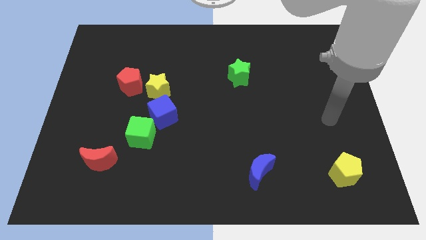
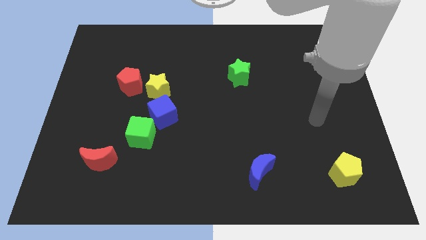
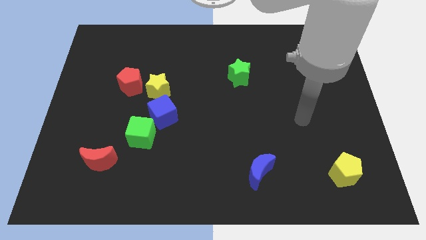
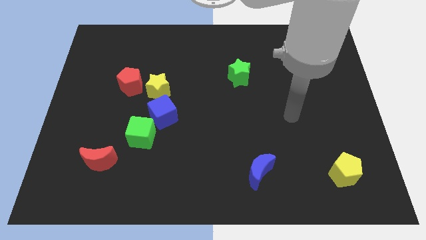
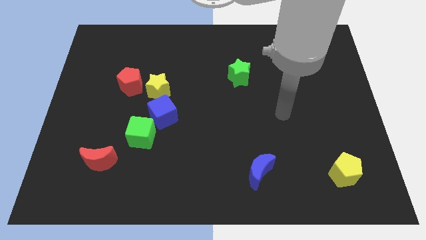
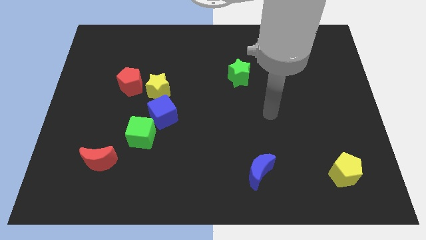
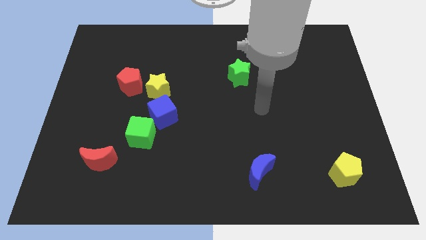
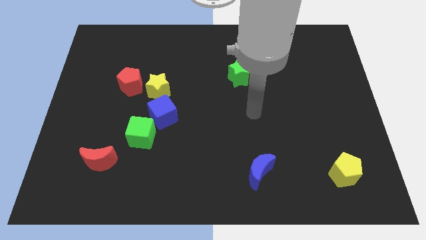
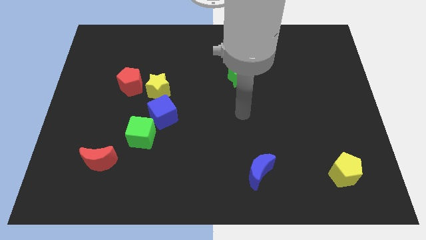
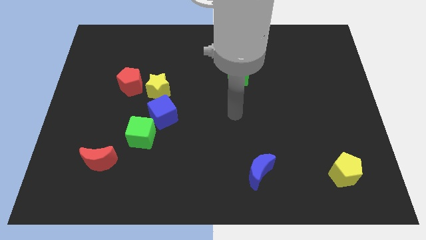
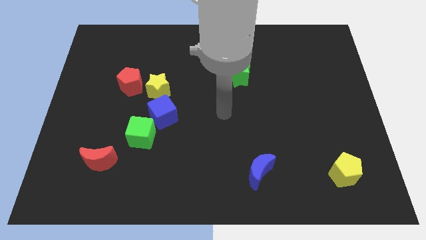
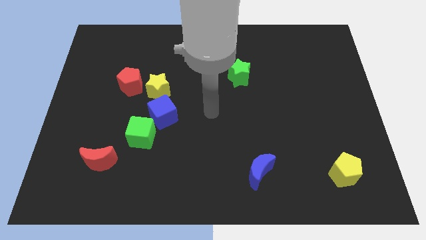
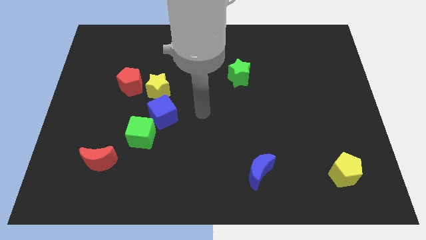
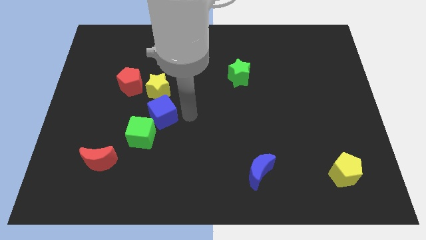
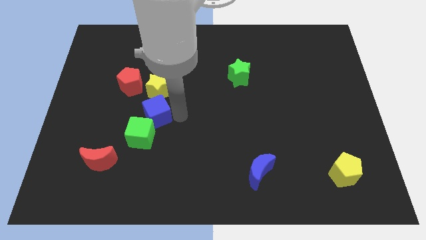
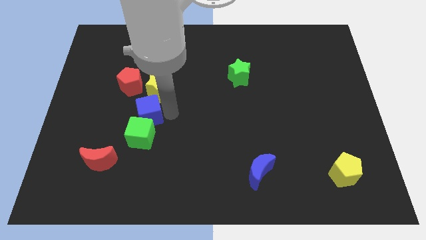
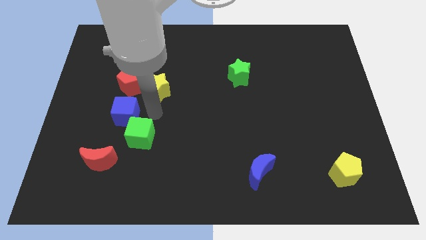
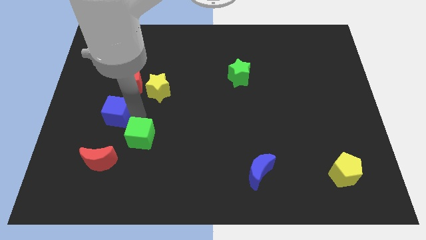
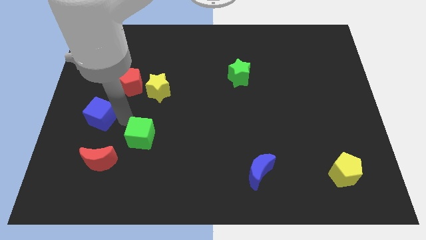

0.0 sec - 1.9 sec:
move the green cube away from the blue cube

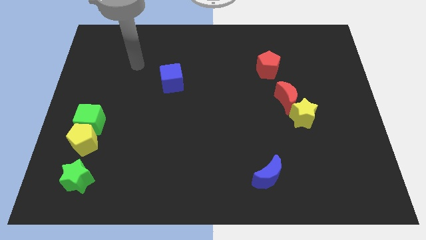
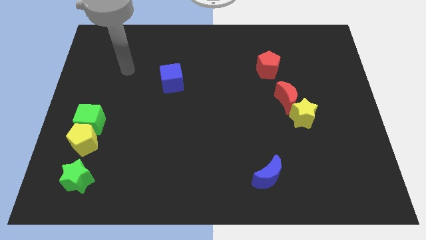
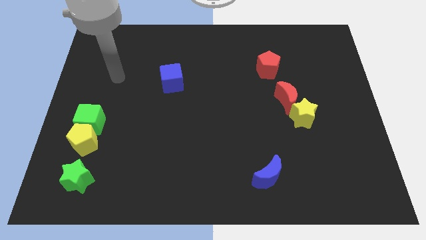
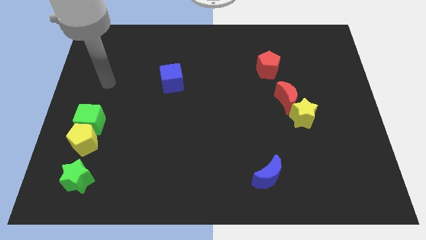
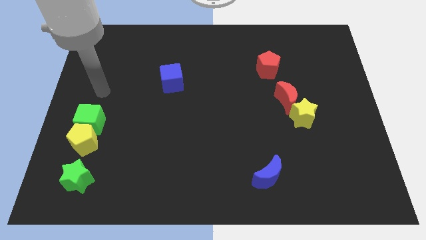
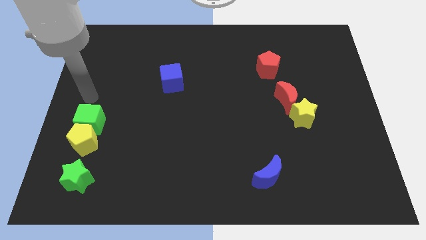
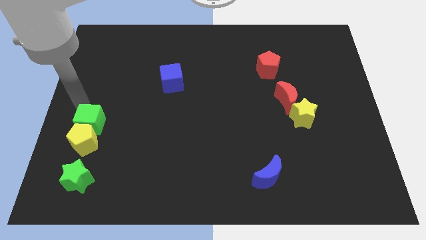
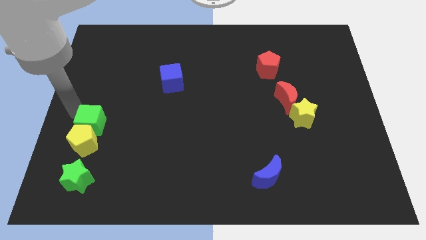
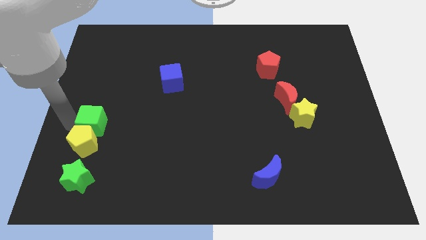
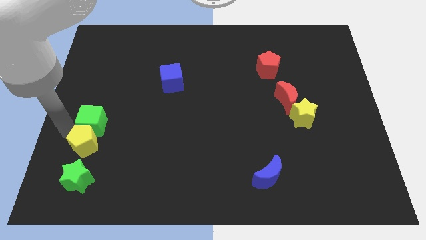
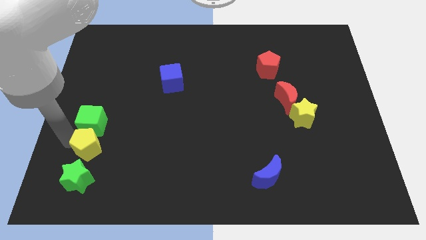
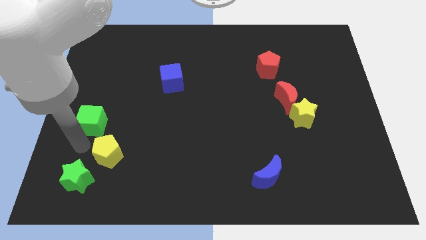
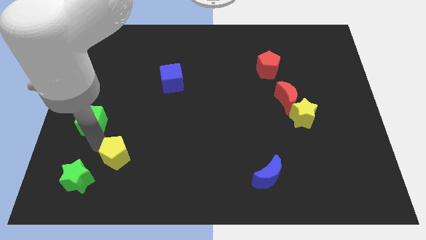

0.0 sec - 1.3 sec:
separate the green cube from the yellow pentagon

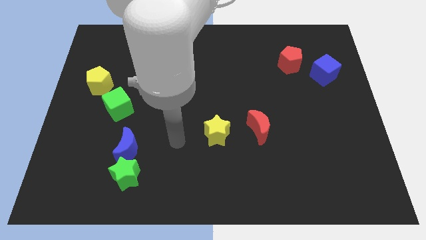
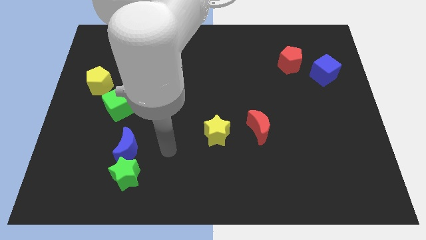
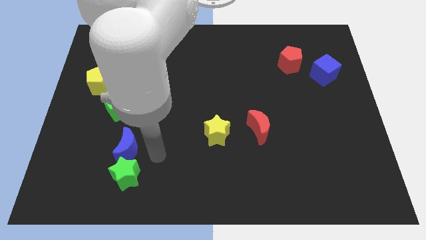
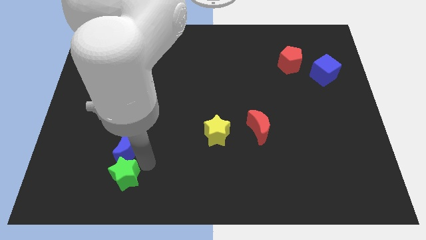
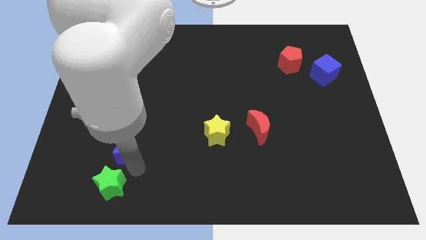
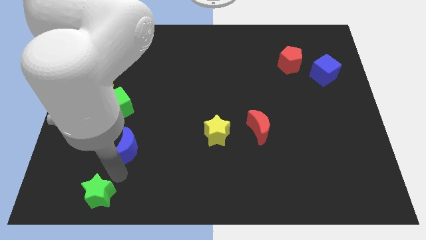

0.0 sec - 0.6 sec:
move the blue moon away from the green star

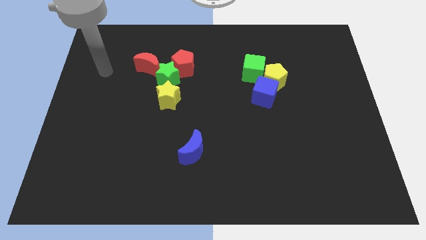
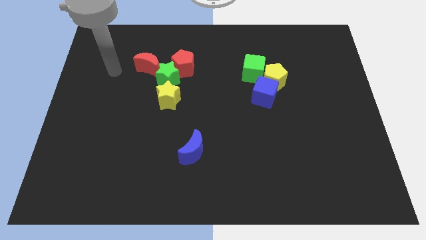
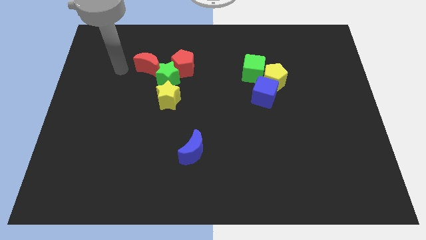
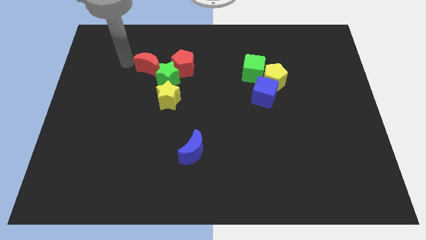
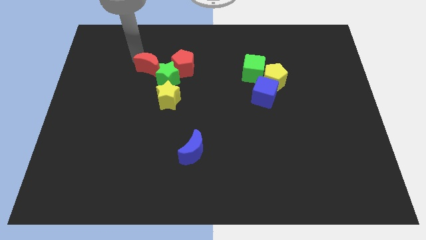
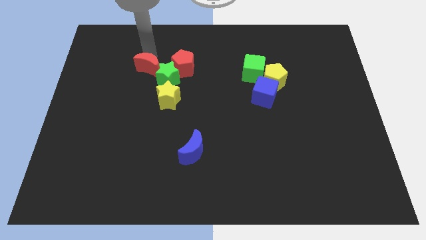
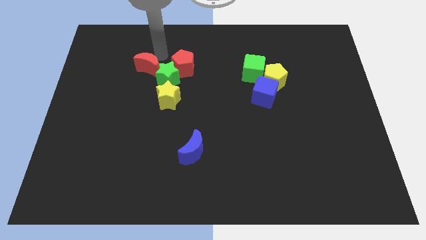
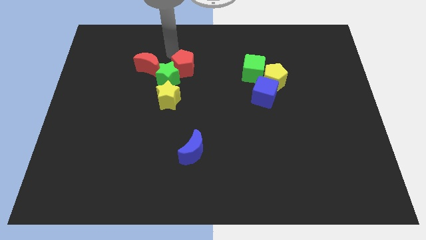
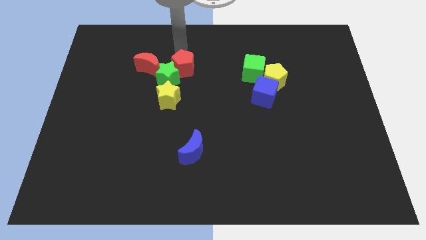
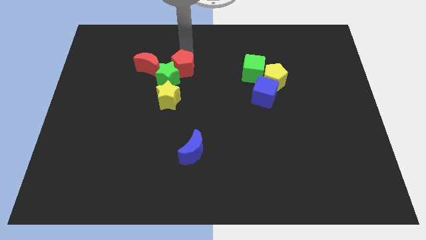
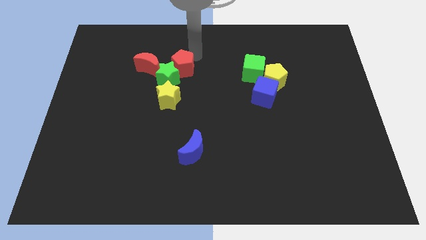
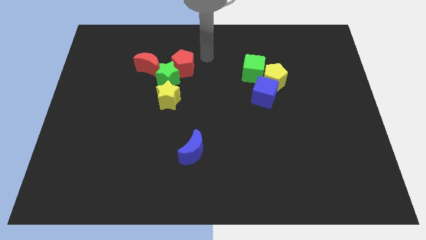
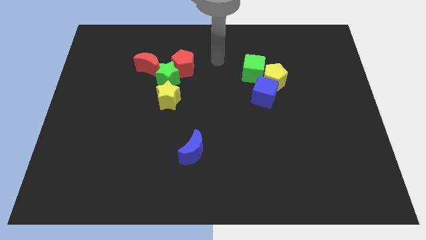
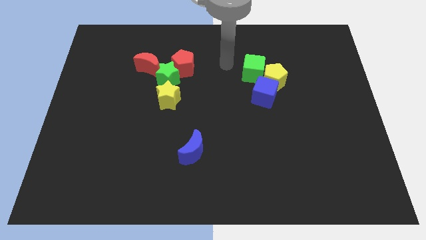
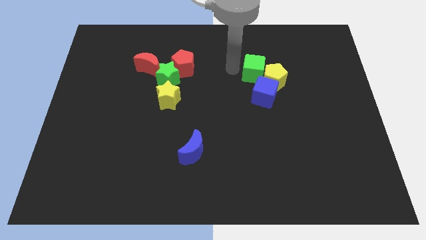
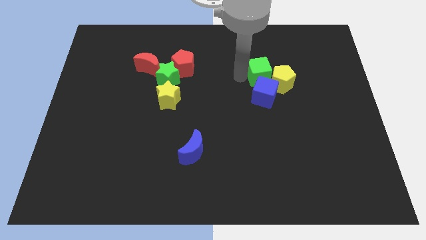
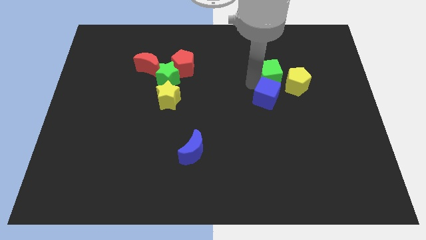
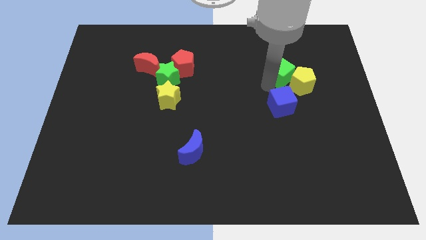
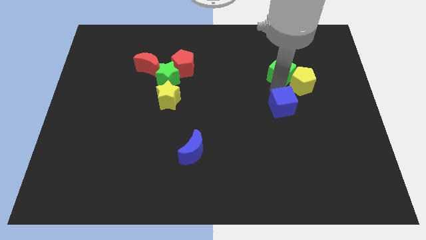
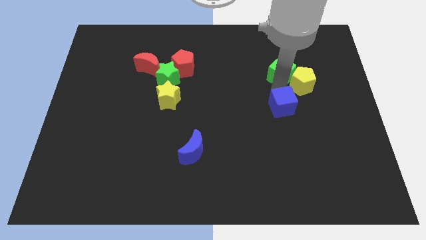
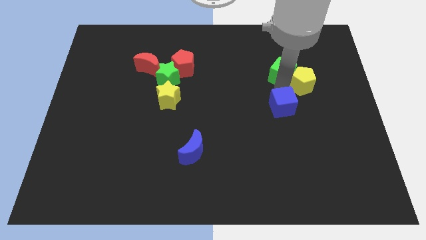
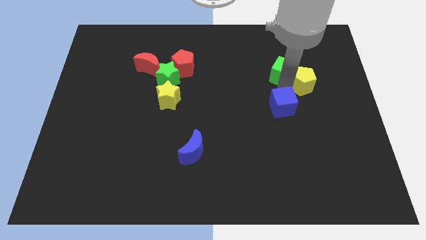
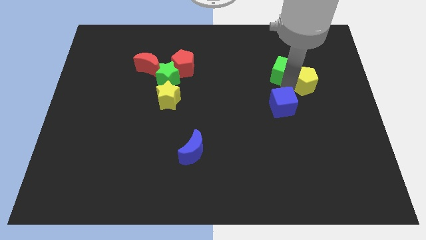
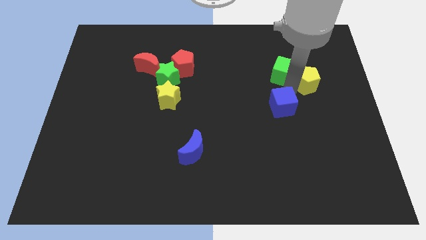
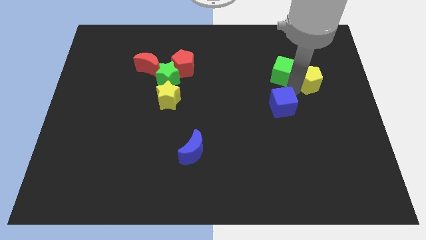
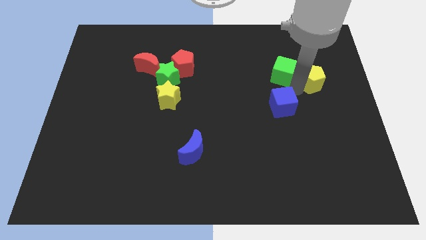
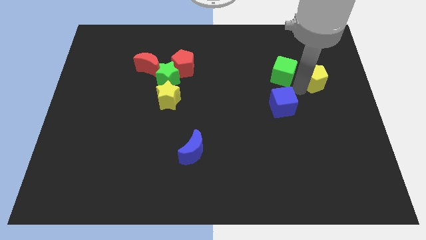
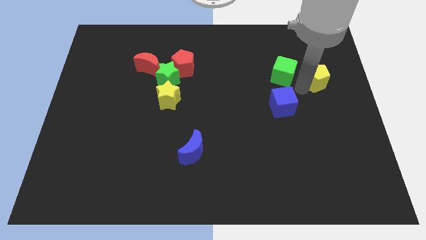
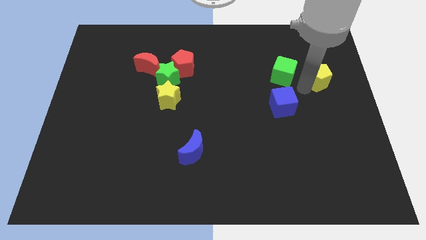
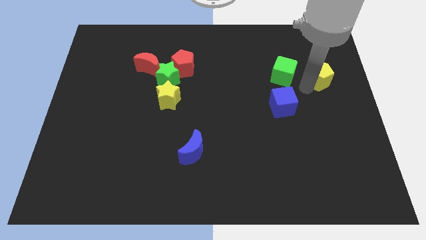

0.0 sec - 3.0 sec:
separate the yellow pentagon from the blue cube and green cube

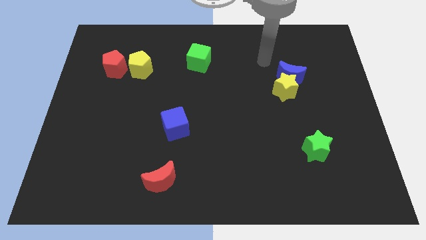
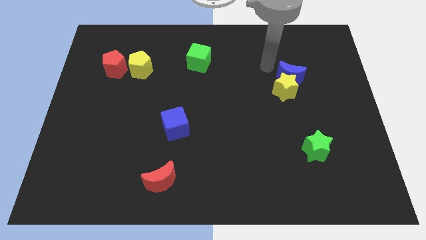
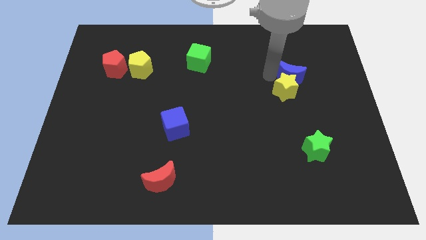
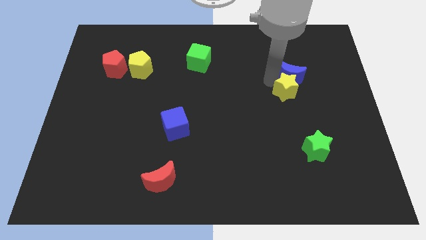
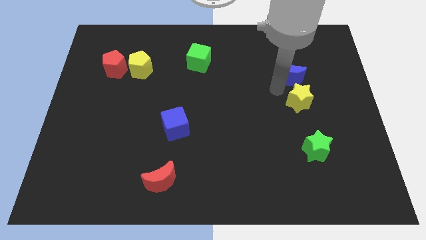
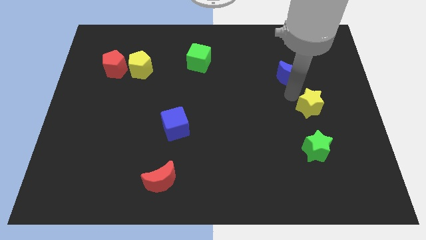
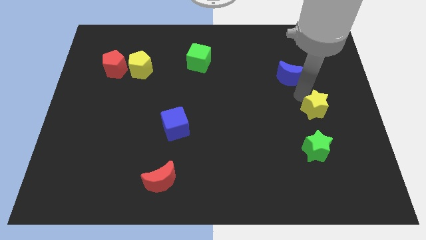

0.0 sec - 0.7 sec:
separate the blue moon from the yellow star

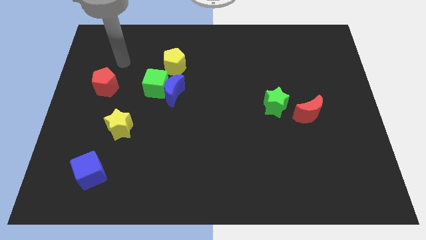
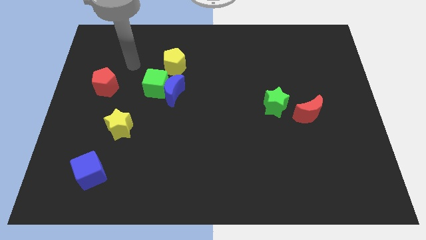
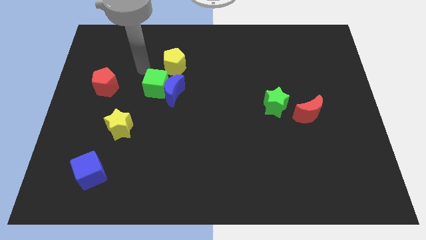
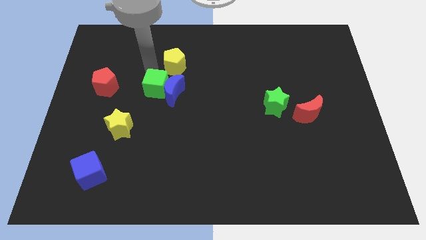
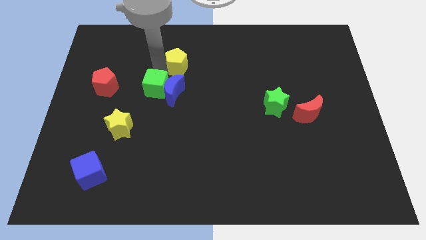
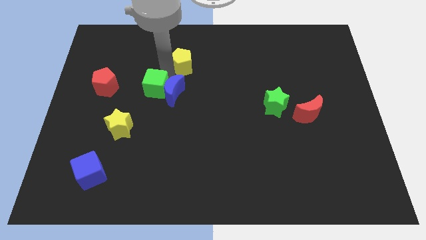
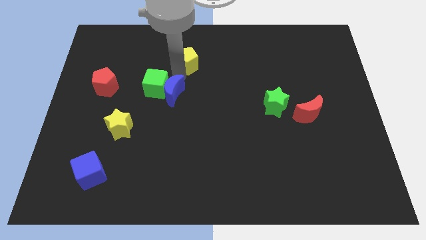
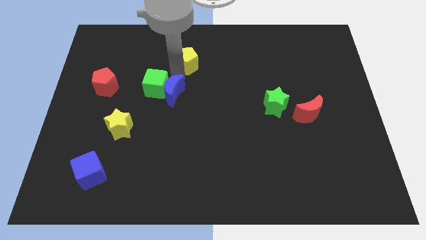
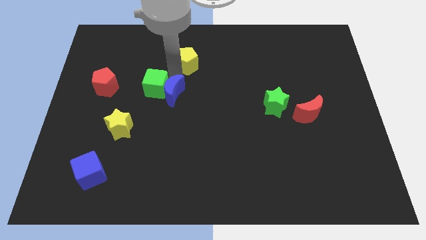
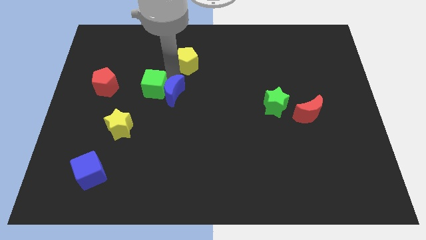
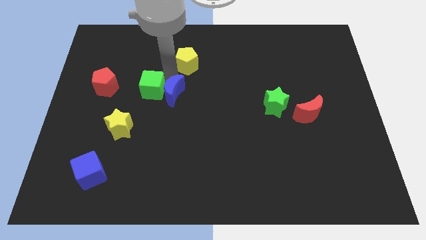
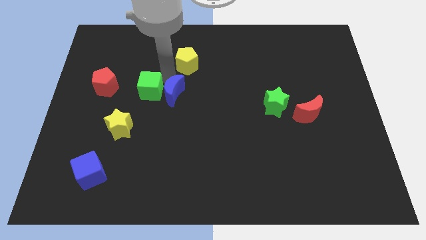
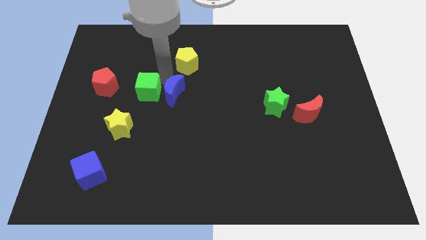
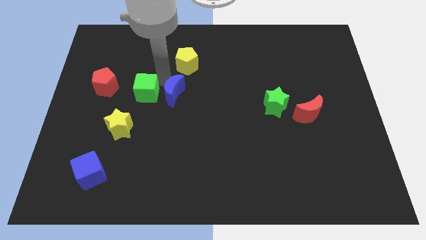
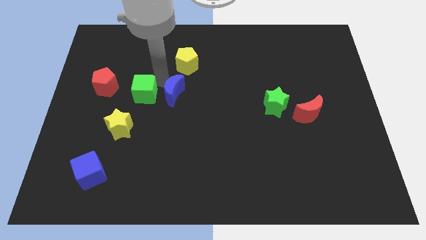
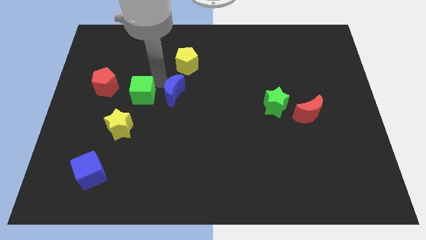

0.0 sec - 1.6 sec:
separate the green cube from the blue moon and yellow pentagon

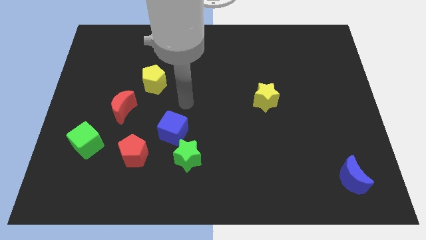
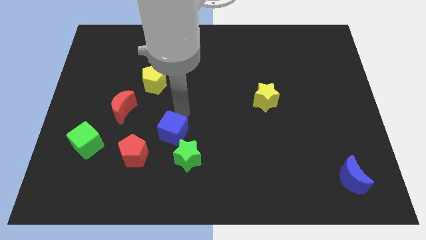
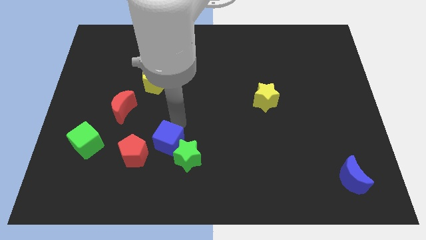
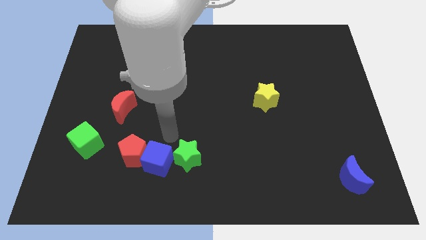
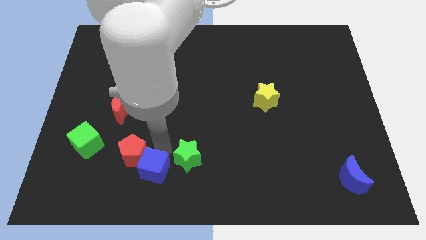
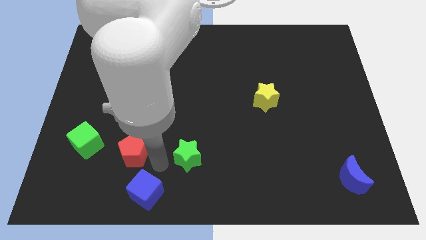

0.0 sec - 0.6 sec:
pull the green star apart from the blue cube
